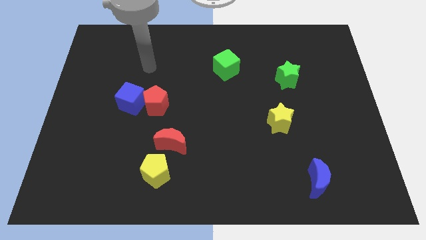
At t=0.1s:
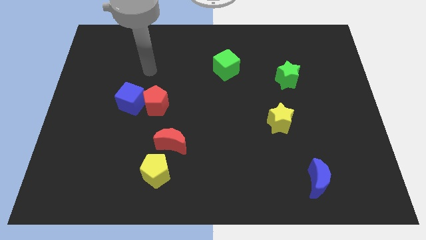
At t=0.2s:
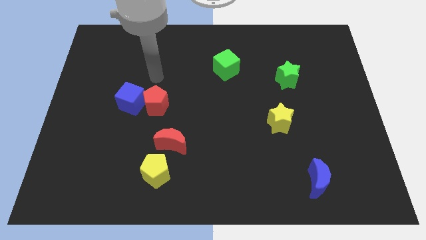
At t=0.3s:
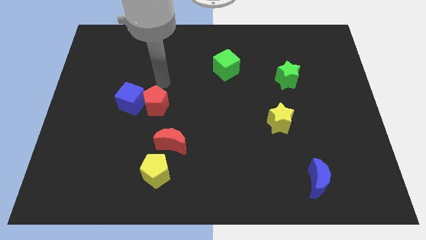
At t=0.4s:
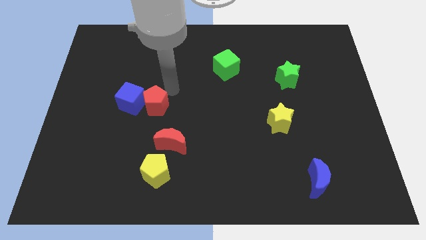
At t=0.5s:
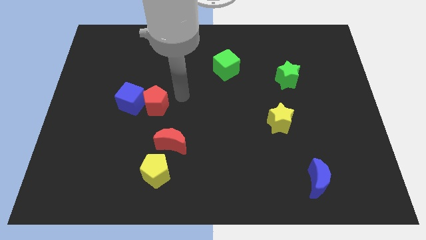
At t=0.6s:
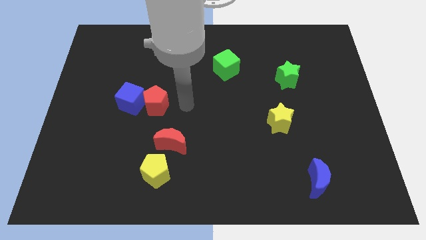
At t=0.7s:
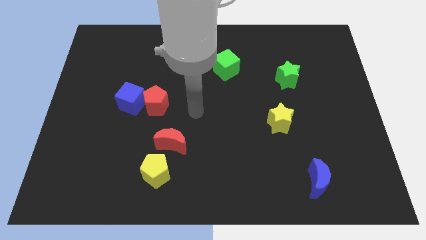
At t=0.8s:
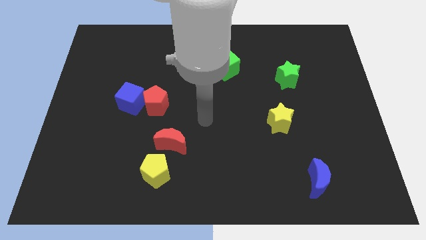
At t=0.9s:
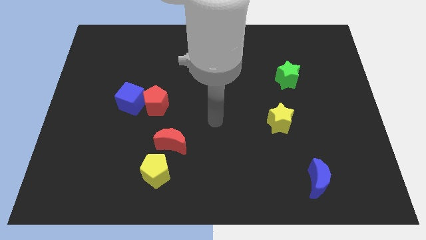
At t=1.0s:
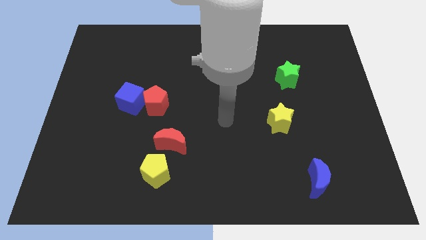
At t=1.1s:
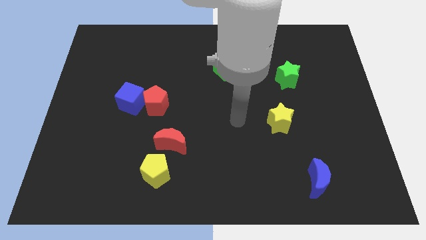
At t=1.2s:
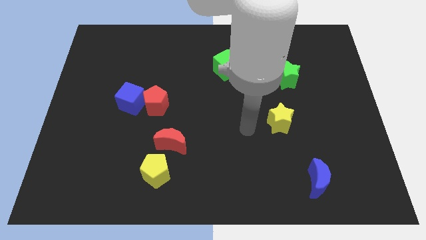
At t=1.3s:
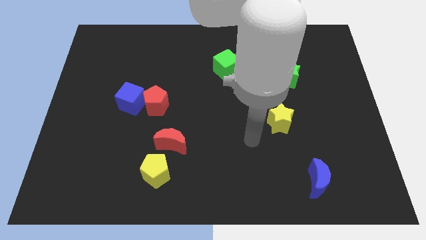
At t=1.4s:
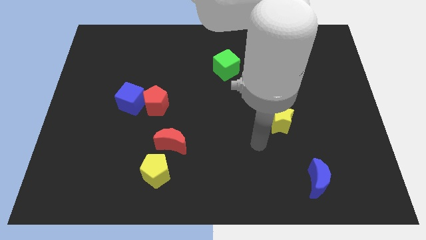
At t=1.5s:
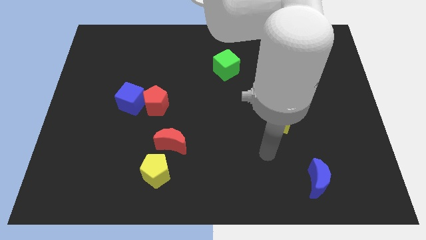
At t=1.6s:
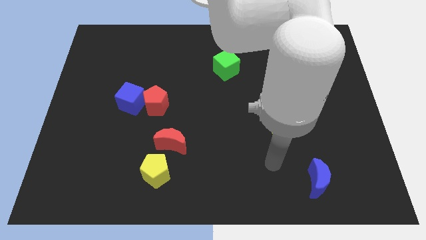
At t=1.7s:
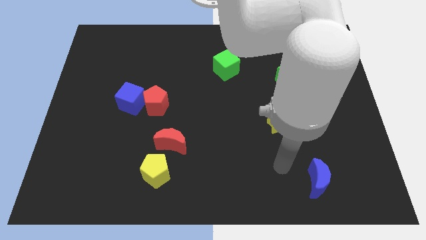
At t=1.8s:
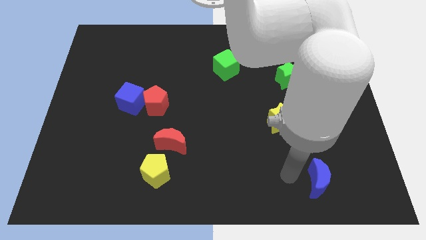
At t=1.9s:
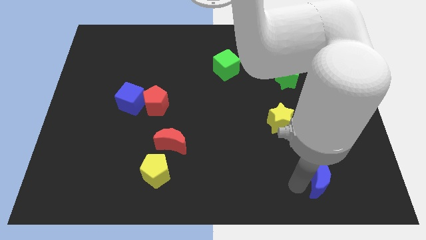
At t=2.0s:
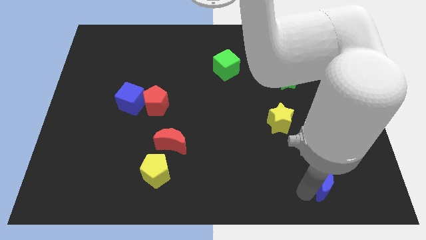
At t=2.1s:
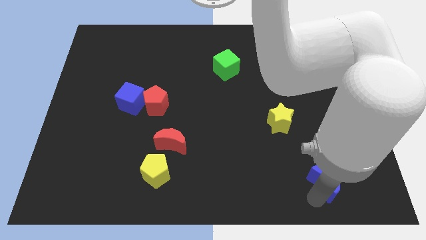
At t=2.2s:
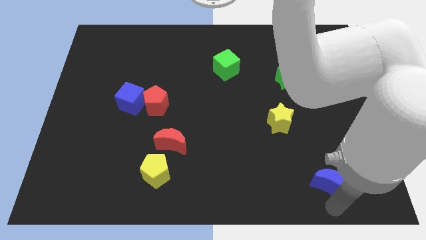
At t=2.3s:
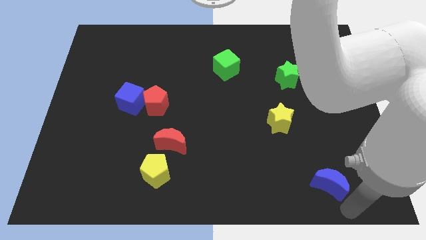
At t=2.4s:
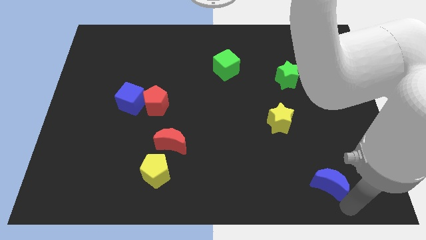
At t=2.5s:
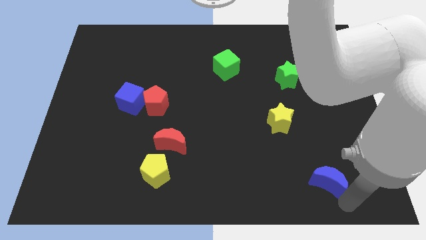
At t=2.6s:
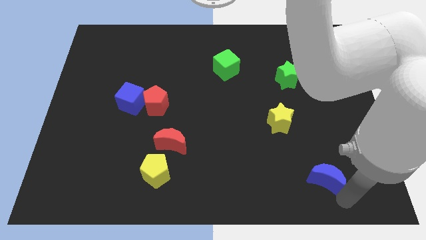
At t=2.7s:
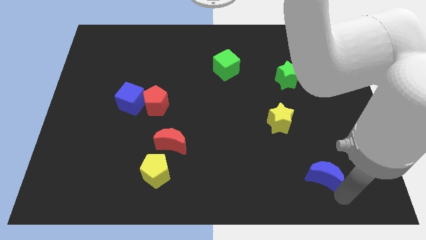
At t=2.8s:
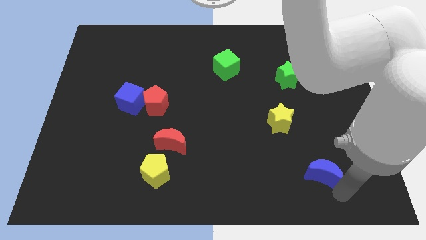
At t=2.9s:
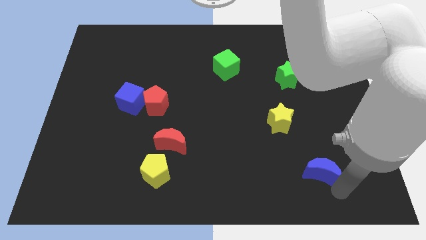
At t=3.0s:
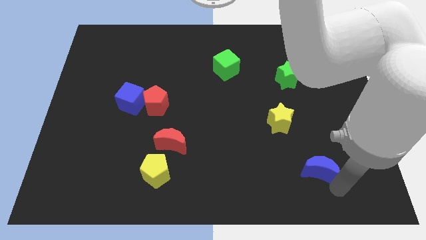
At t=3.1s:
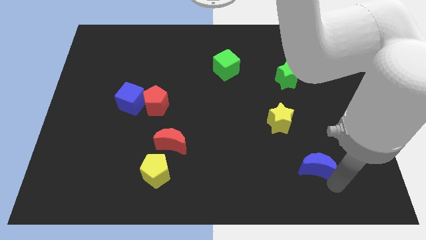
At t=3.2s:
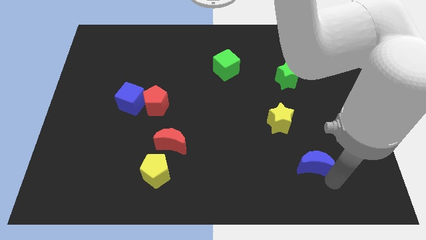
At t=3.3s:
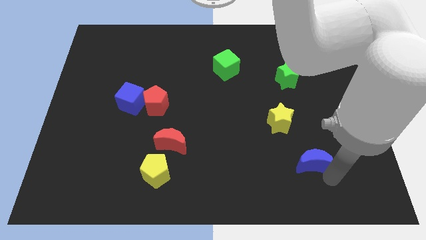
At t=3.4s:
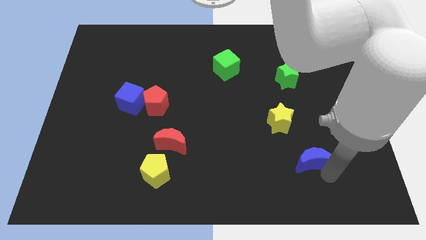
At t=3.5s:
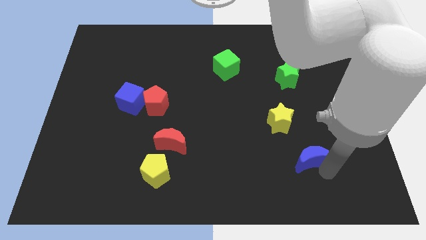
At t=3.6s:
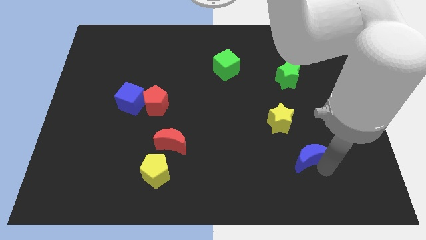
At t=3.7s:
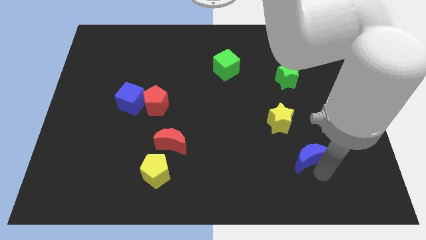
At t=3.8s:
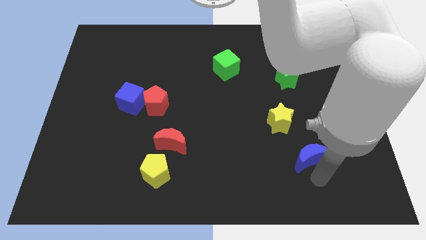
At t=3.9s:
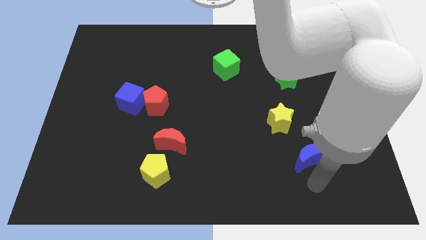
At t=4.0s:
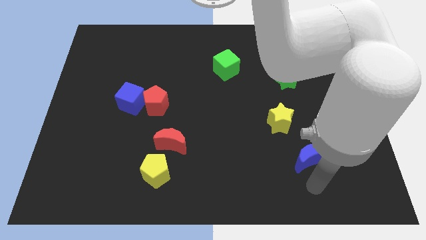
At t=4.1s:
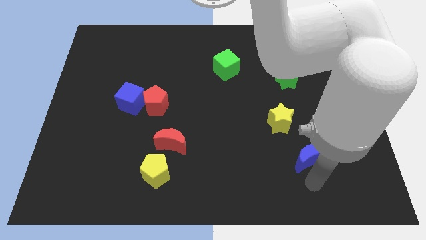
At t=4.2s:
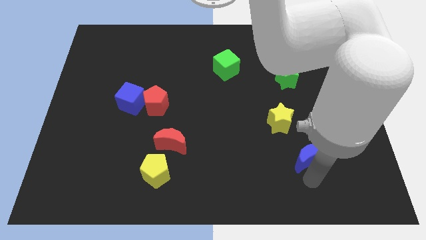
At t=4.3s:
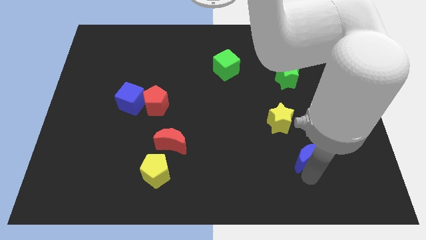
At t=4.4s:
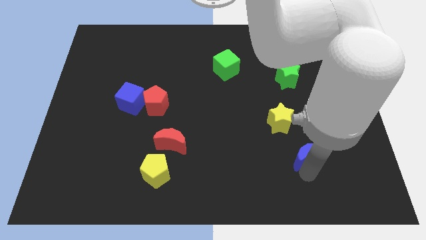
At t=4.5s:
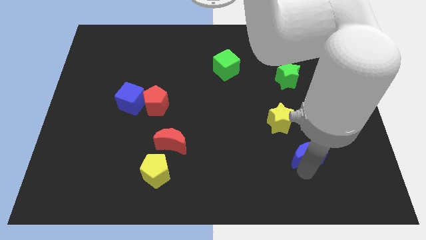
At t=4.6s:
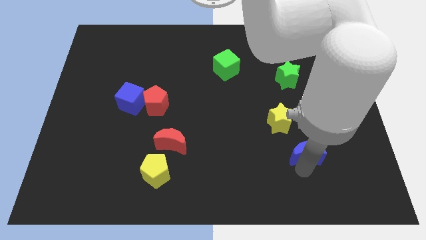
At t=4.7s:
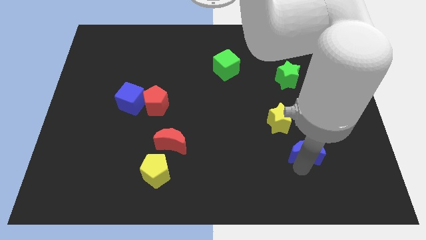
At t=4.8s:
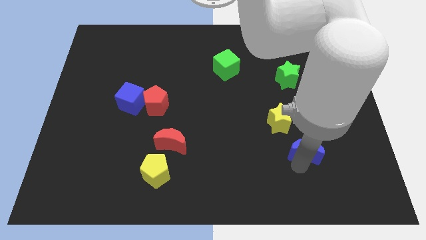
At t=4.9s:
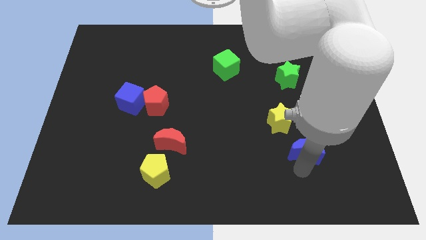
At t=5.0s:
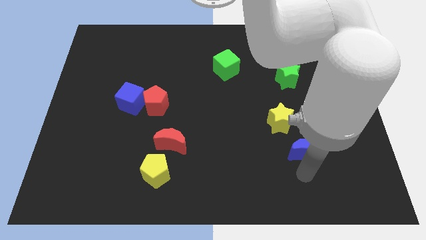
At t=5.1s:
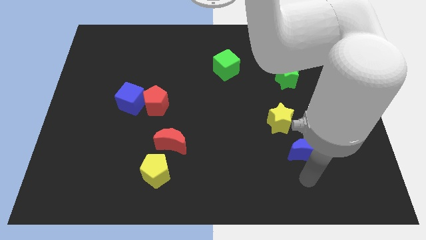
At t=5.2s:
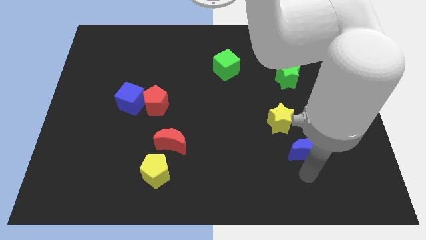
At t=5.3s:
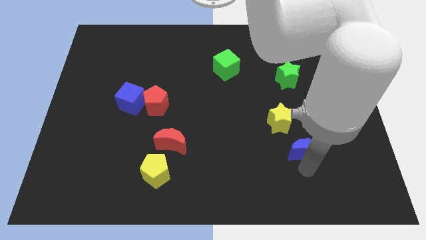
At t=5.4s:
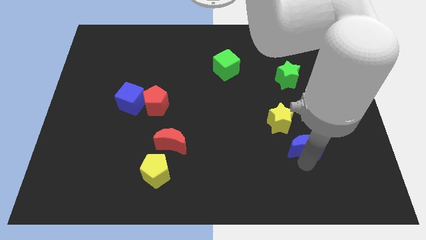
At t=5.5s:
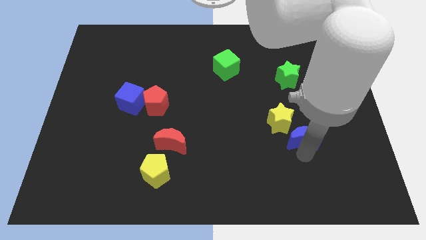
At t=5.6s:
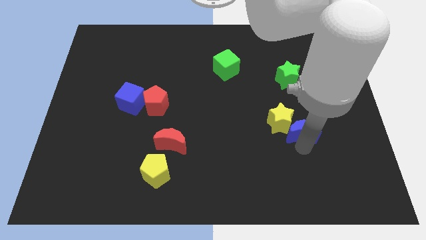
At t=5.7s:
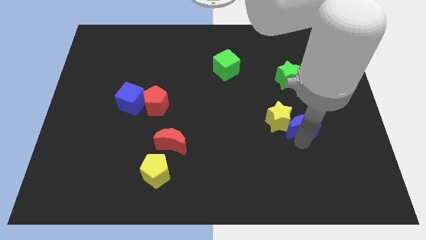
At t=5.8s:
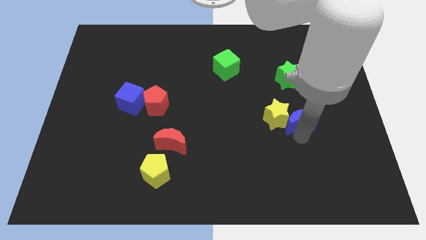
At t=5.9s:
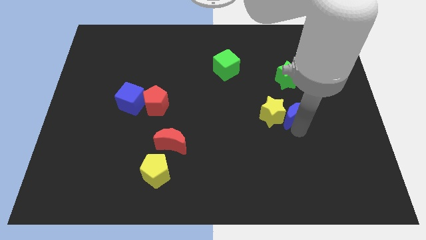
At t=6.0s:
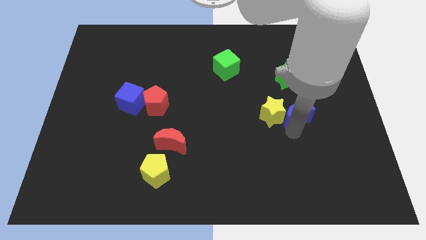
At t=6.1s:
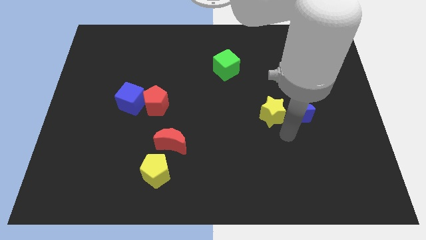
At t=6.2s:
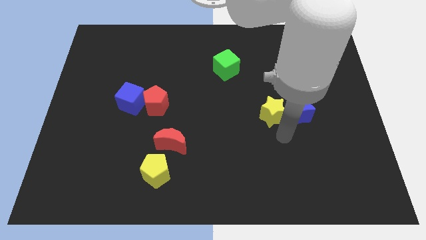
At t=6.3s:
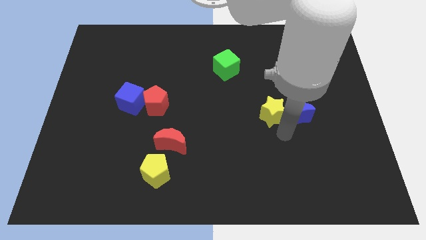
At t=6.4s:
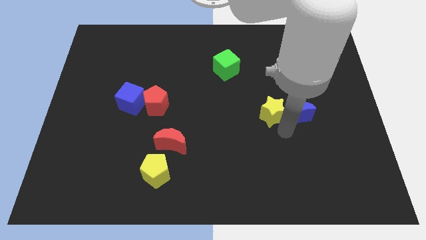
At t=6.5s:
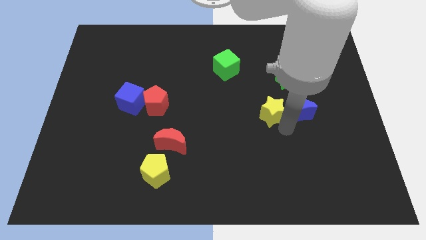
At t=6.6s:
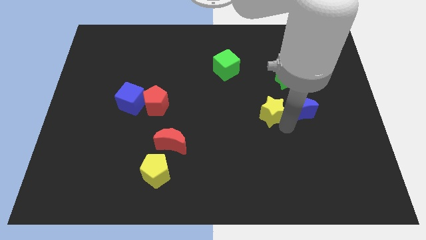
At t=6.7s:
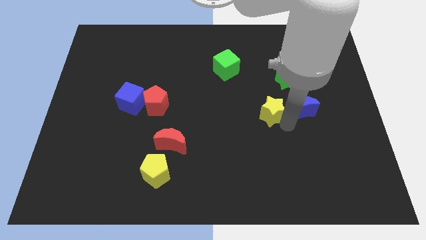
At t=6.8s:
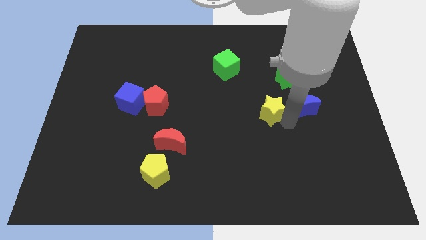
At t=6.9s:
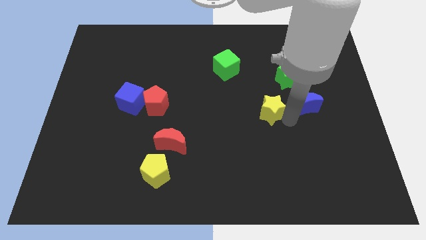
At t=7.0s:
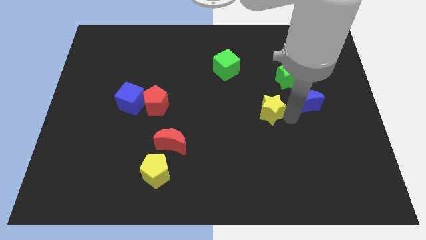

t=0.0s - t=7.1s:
slide the blue moon upwards

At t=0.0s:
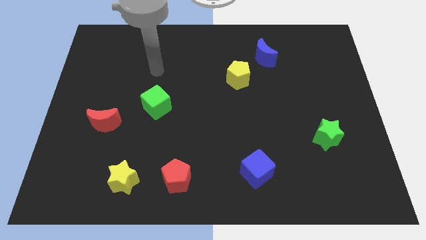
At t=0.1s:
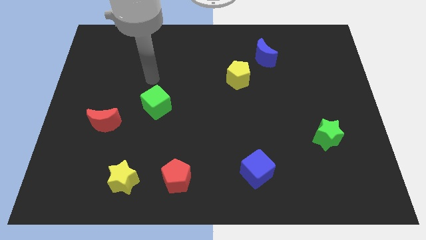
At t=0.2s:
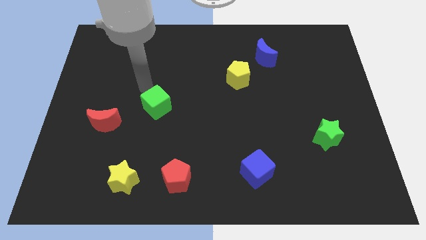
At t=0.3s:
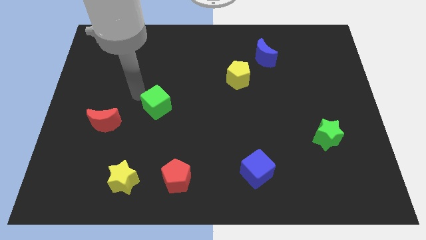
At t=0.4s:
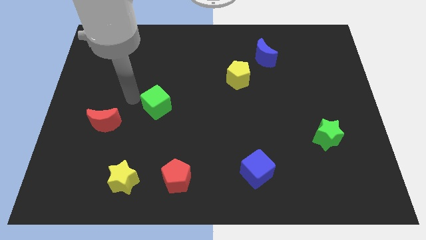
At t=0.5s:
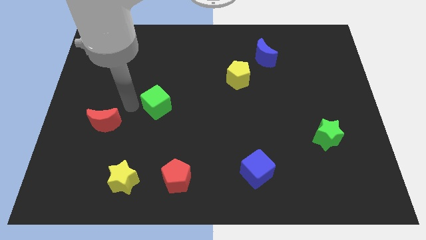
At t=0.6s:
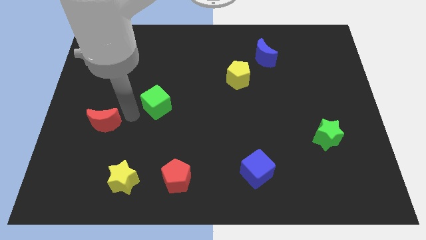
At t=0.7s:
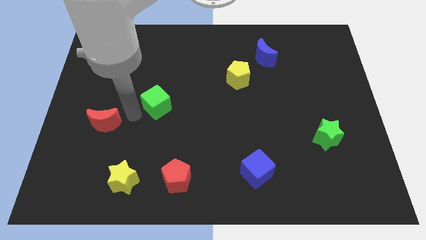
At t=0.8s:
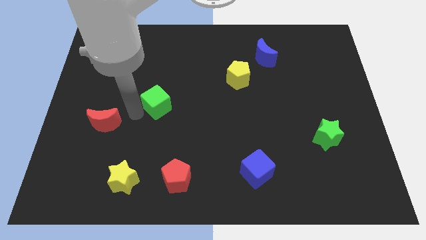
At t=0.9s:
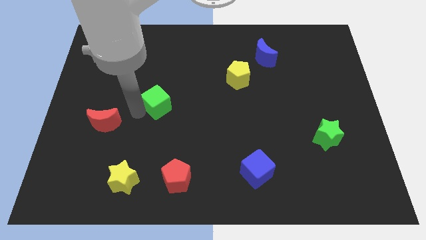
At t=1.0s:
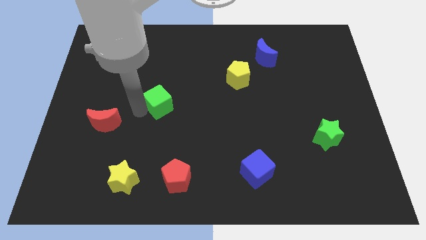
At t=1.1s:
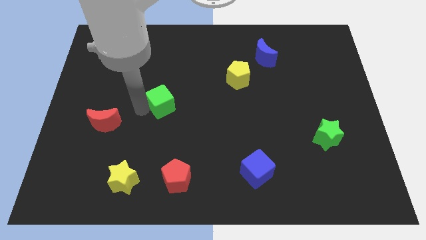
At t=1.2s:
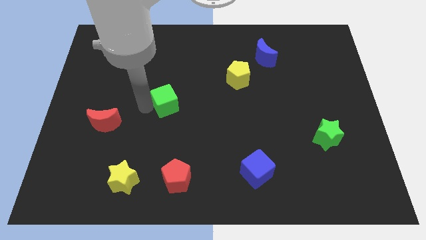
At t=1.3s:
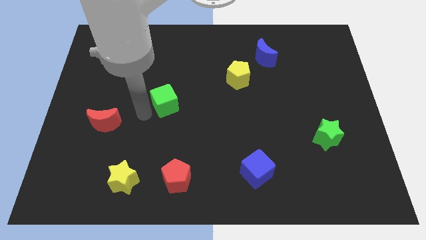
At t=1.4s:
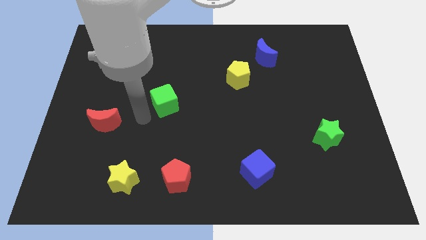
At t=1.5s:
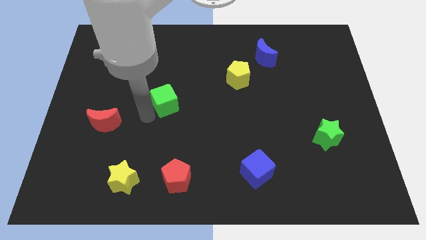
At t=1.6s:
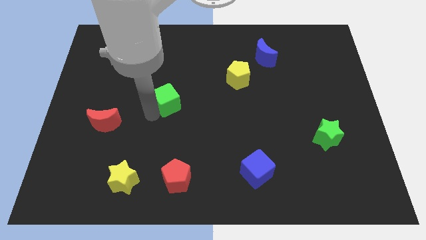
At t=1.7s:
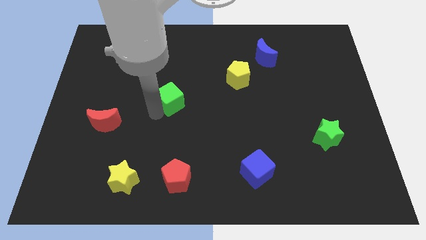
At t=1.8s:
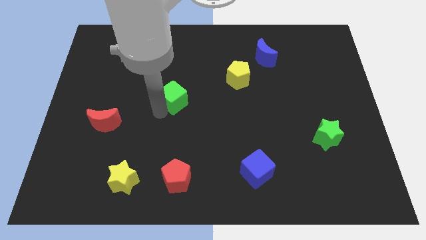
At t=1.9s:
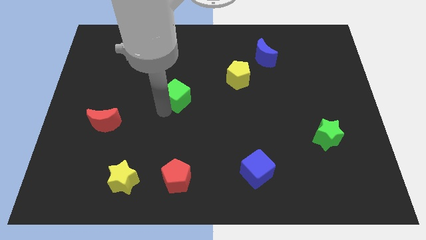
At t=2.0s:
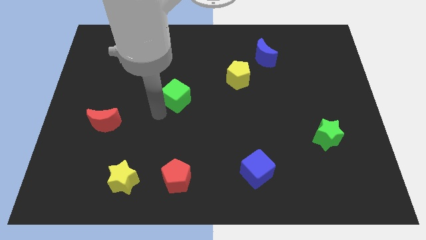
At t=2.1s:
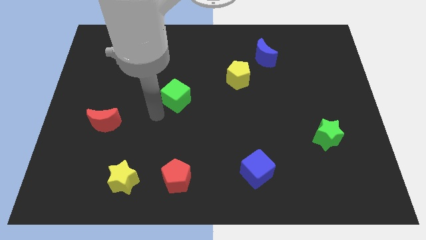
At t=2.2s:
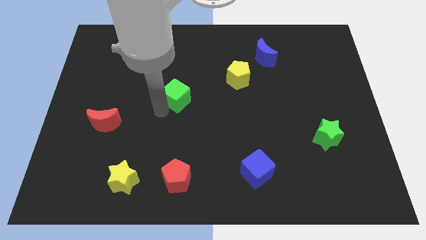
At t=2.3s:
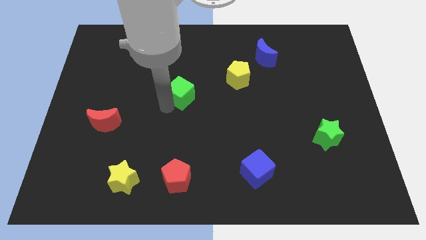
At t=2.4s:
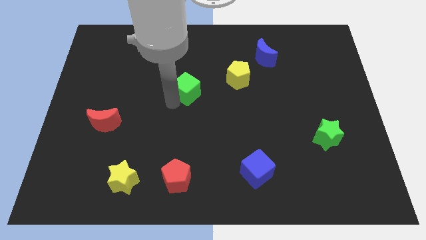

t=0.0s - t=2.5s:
slightly slide the green cube up and to the right diagonally
